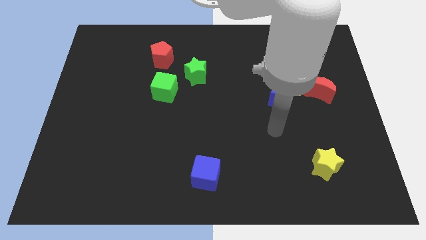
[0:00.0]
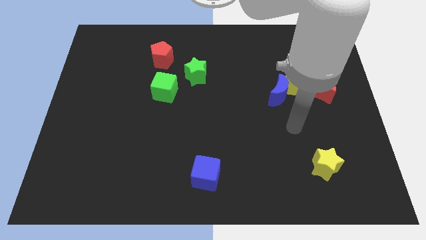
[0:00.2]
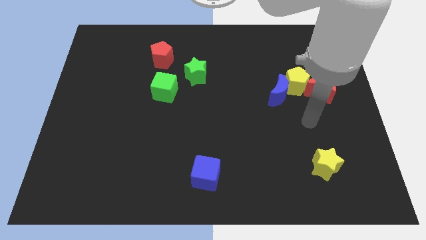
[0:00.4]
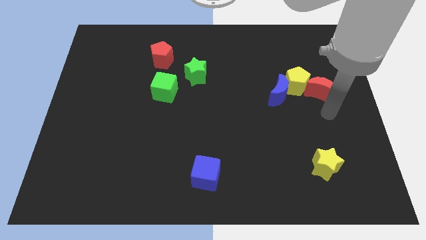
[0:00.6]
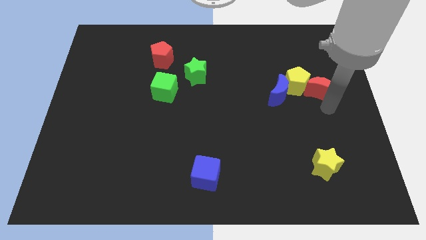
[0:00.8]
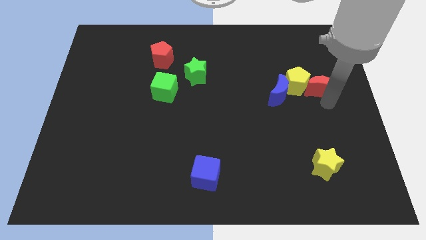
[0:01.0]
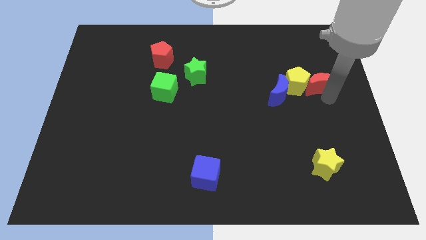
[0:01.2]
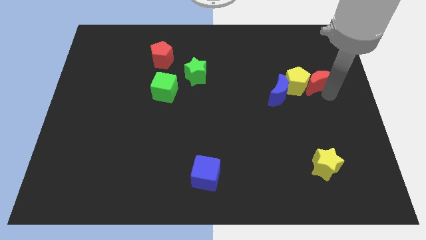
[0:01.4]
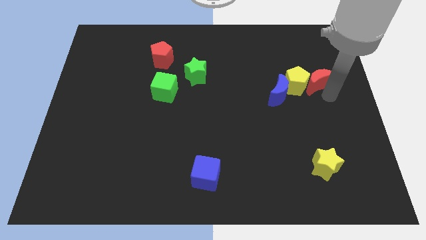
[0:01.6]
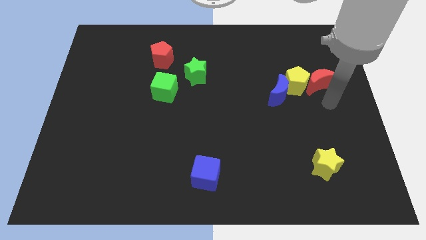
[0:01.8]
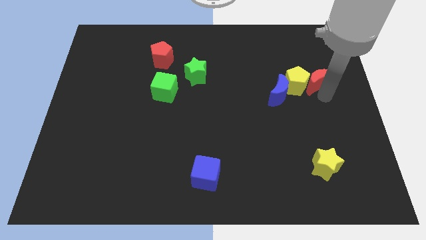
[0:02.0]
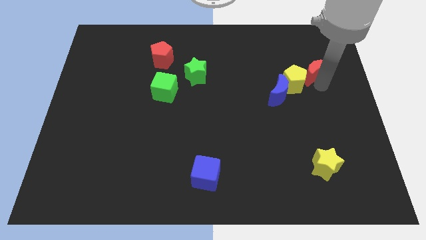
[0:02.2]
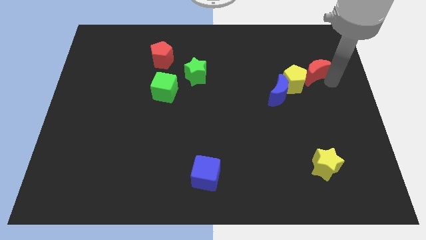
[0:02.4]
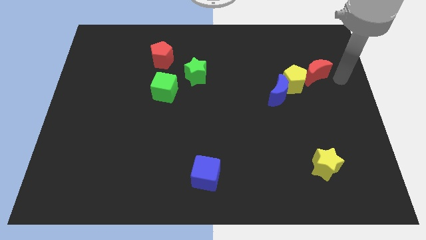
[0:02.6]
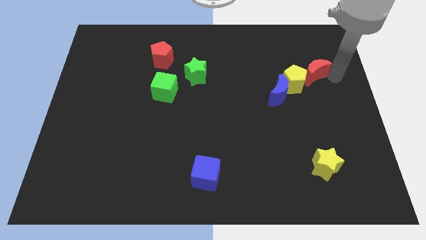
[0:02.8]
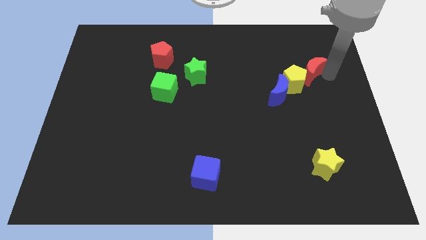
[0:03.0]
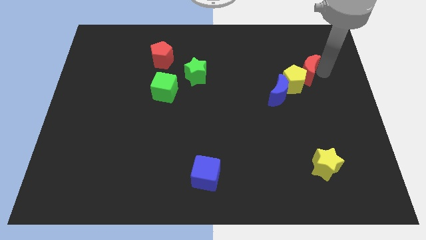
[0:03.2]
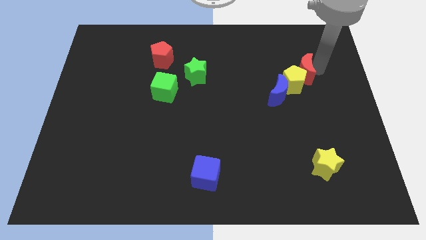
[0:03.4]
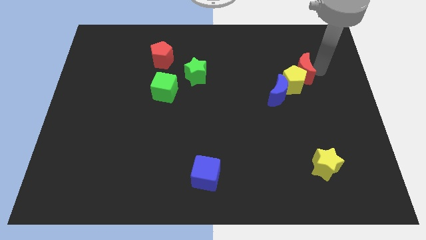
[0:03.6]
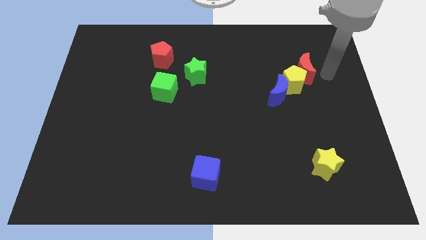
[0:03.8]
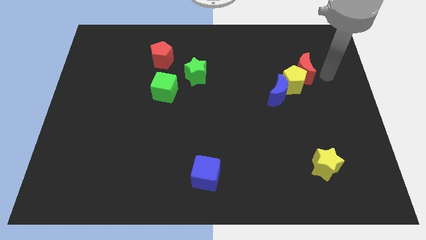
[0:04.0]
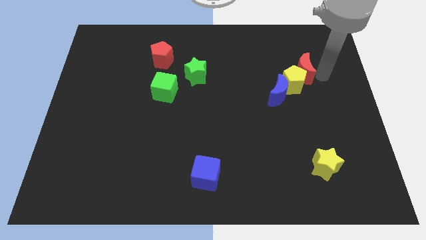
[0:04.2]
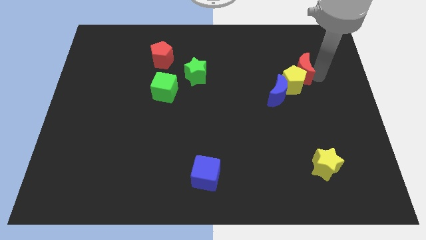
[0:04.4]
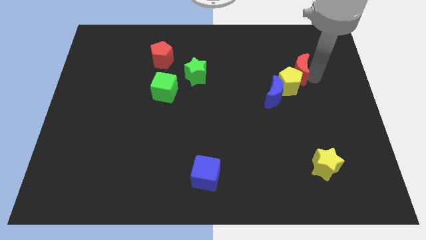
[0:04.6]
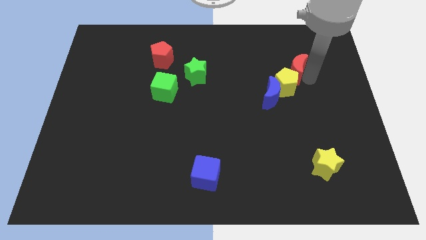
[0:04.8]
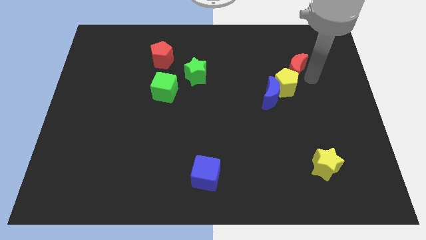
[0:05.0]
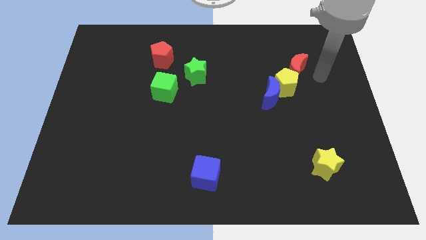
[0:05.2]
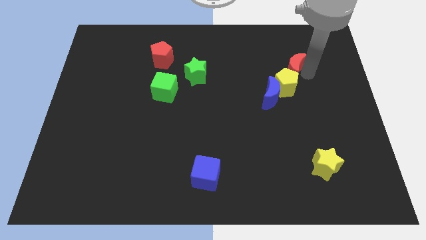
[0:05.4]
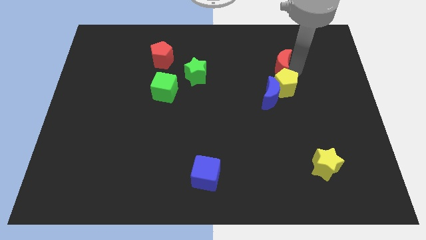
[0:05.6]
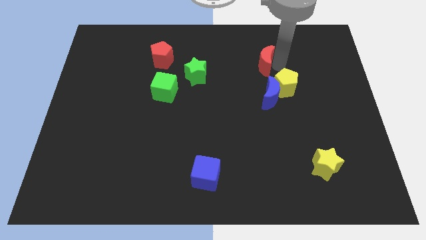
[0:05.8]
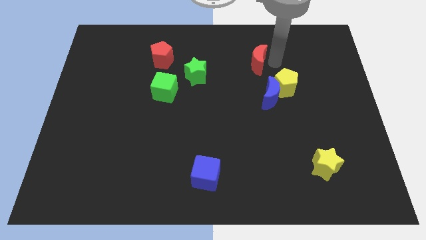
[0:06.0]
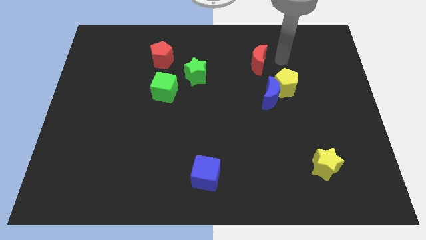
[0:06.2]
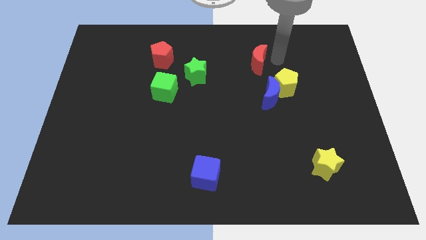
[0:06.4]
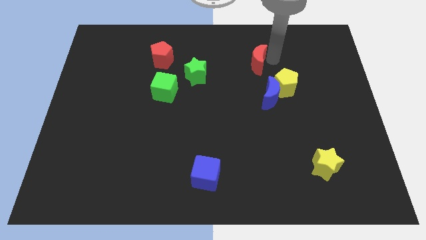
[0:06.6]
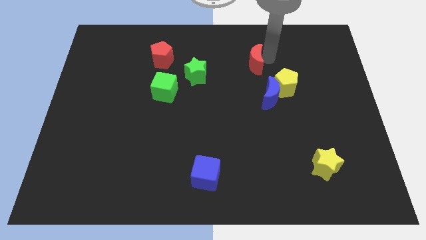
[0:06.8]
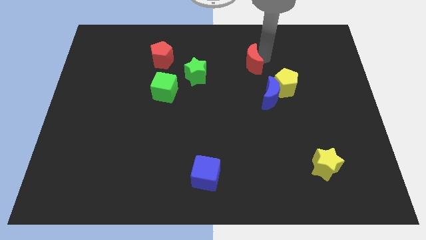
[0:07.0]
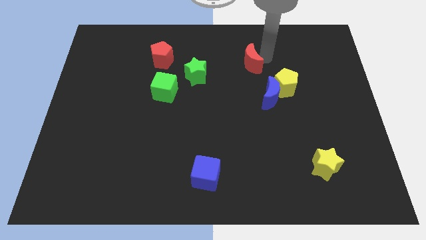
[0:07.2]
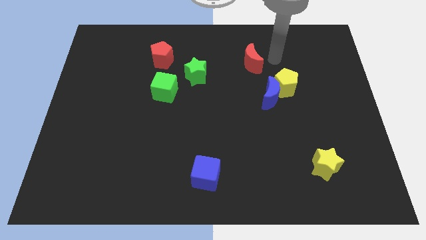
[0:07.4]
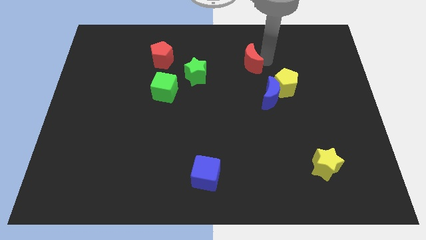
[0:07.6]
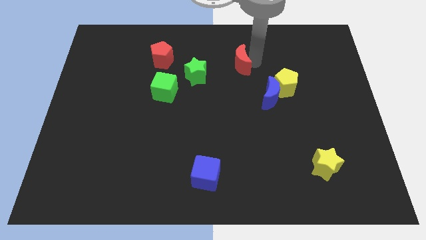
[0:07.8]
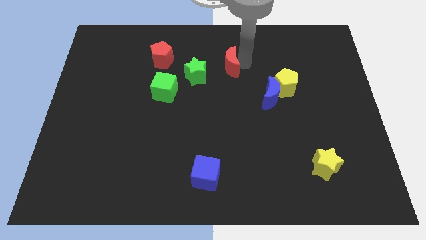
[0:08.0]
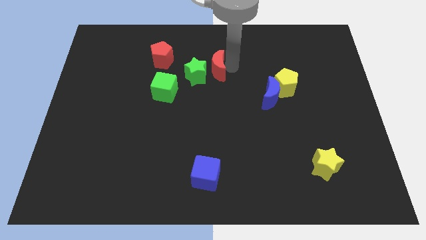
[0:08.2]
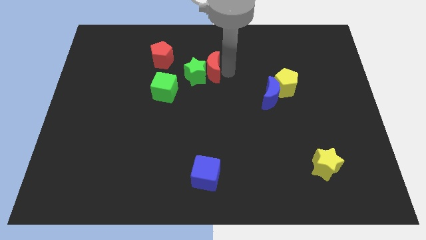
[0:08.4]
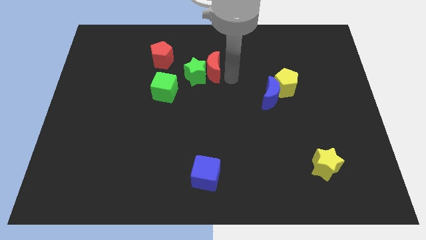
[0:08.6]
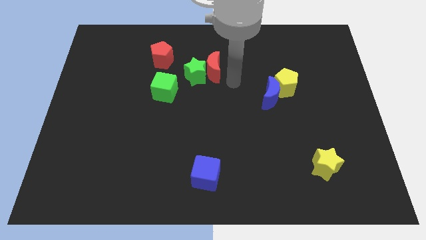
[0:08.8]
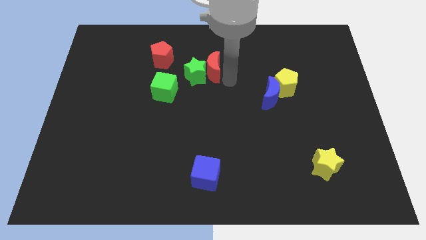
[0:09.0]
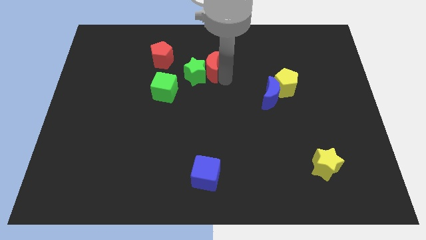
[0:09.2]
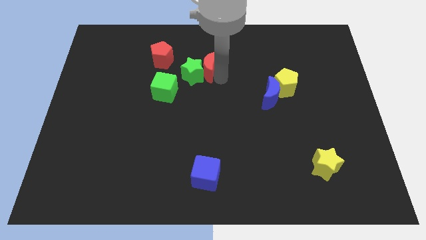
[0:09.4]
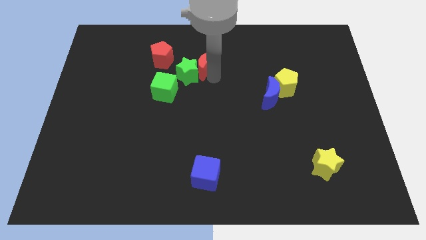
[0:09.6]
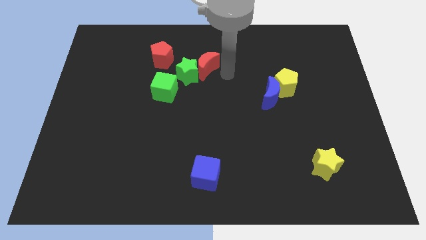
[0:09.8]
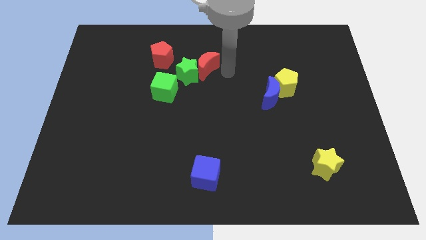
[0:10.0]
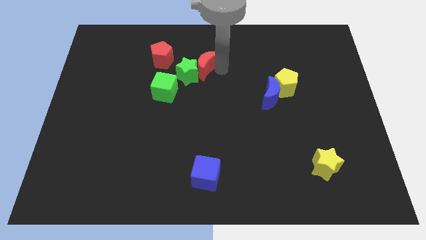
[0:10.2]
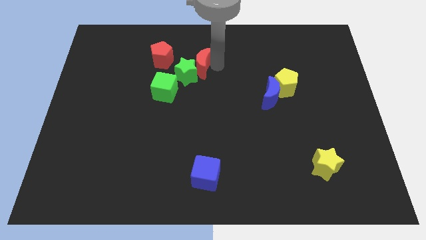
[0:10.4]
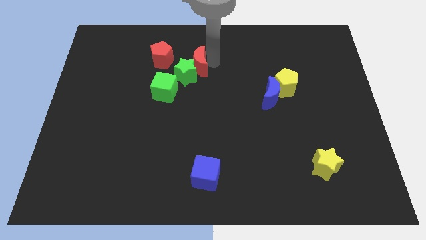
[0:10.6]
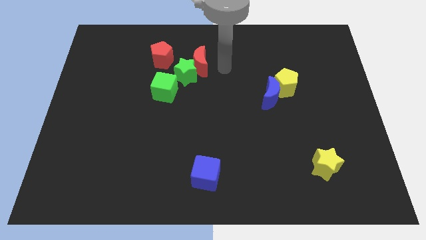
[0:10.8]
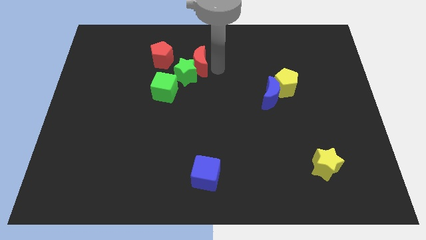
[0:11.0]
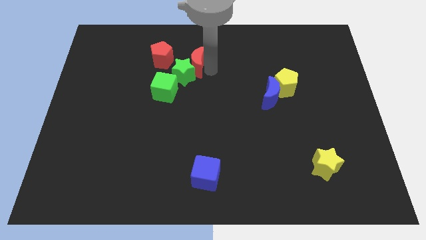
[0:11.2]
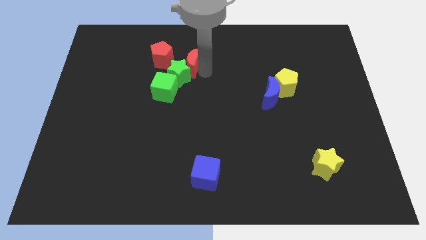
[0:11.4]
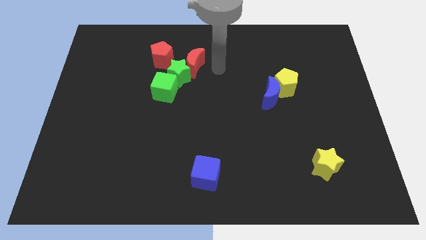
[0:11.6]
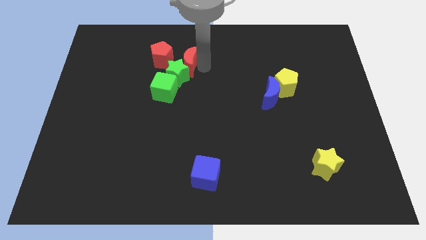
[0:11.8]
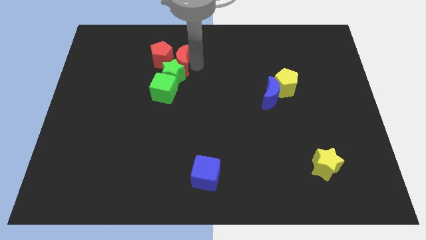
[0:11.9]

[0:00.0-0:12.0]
push the red moon to the top left of the green star
